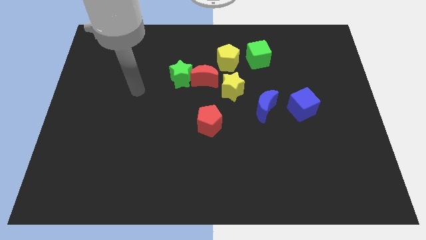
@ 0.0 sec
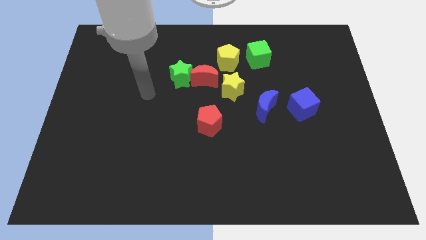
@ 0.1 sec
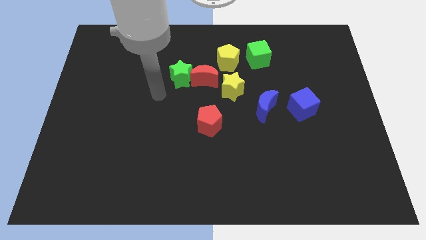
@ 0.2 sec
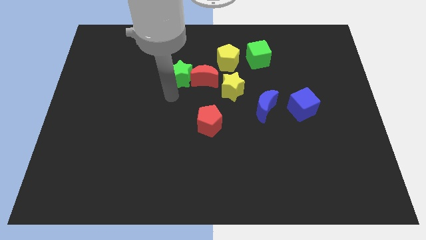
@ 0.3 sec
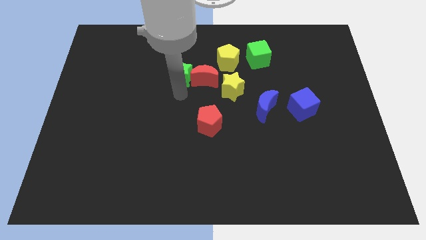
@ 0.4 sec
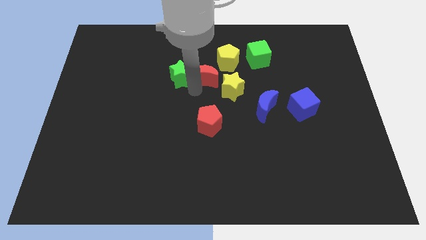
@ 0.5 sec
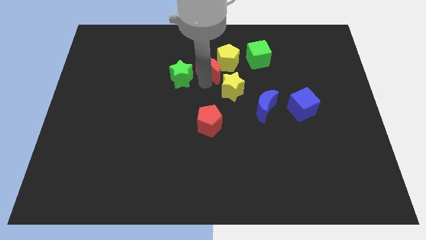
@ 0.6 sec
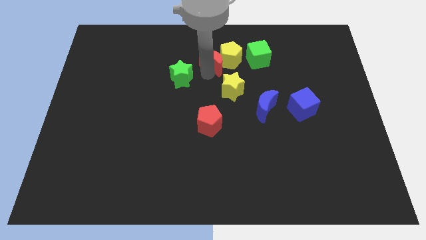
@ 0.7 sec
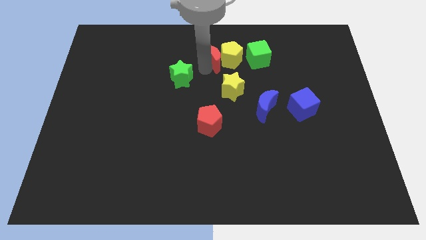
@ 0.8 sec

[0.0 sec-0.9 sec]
separate the green star from the red moon

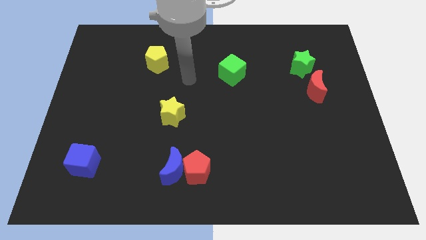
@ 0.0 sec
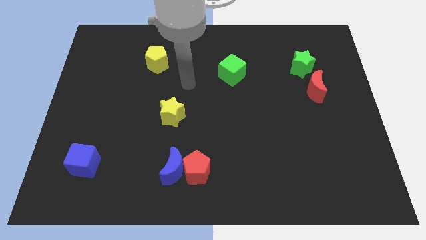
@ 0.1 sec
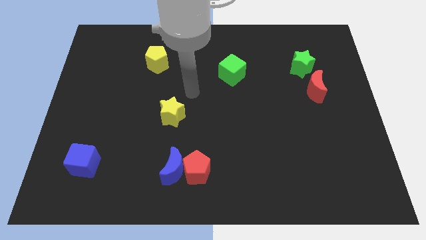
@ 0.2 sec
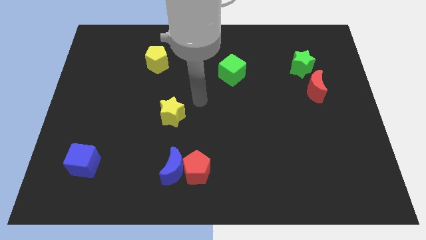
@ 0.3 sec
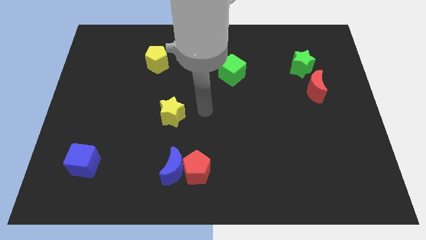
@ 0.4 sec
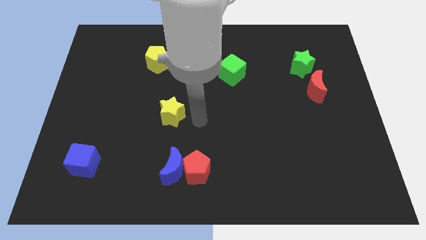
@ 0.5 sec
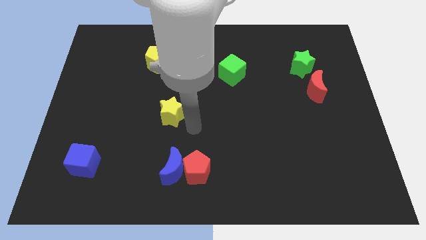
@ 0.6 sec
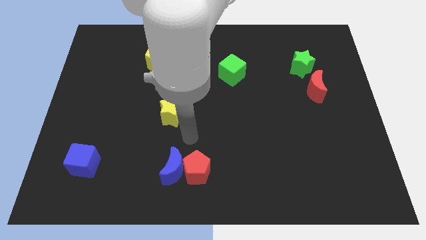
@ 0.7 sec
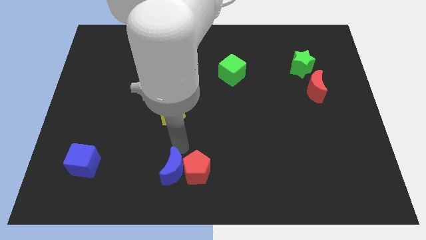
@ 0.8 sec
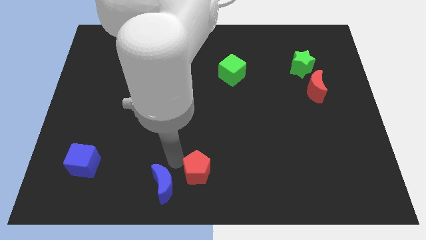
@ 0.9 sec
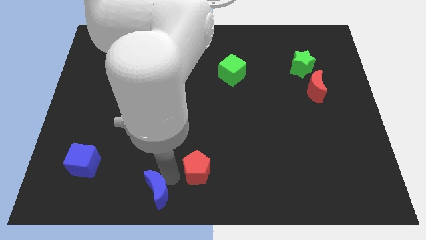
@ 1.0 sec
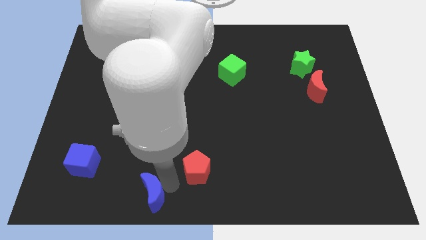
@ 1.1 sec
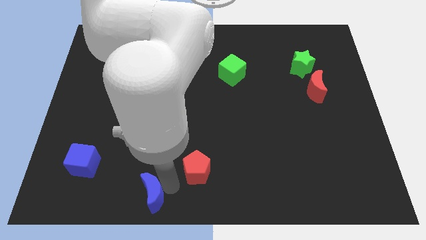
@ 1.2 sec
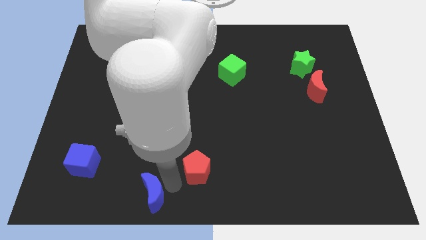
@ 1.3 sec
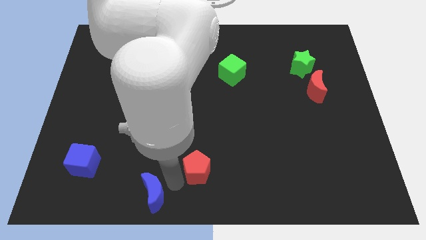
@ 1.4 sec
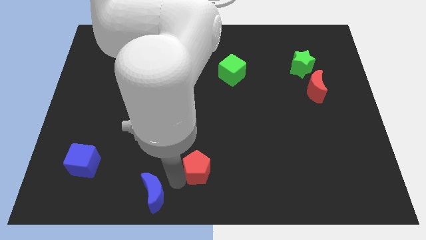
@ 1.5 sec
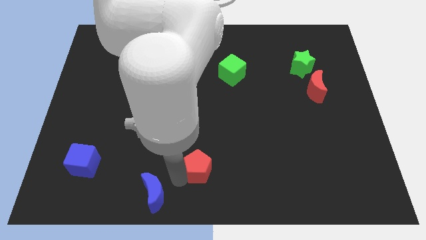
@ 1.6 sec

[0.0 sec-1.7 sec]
pull the red pentagon apart from the blue moon

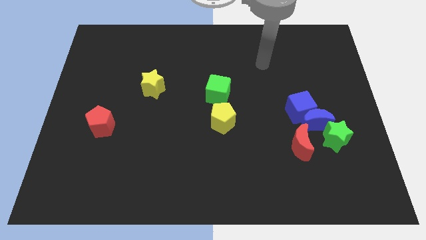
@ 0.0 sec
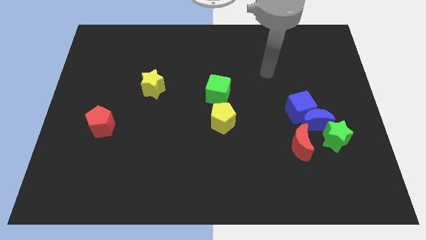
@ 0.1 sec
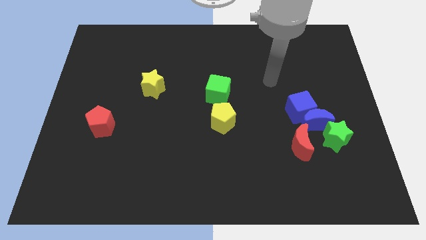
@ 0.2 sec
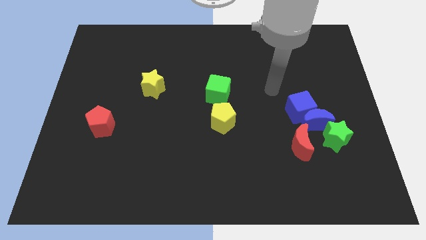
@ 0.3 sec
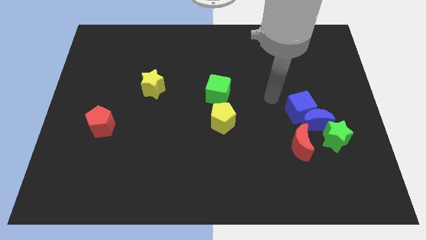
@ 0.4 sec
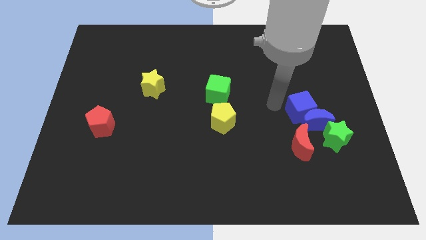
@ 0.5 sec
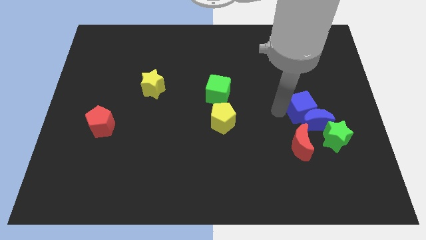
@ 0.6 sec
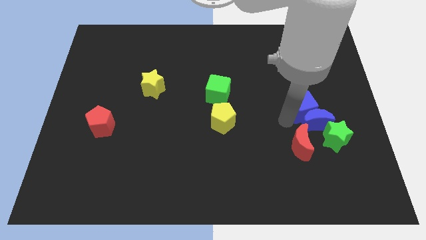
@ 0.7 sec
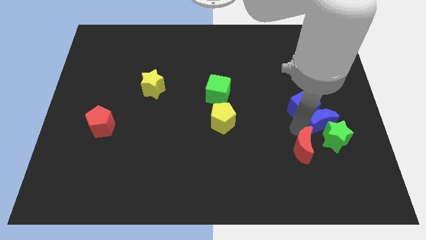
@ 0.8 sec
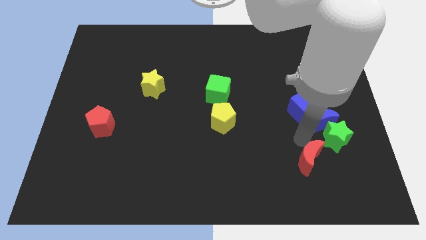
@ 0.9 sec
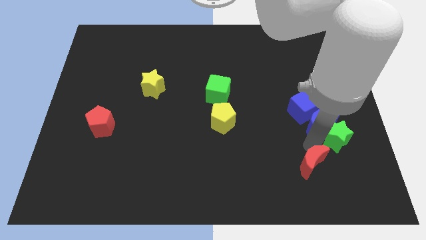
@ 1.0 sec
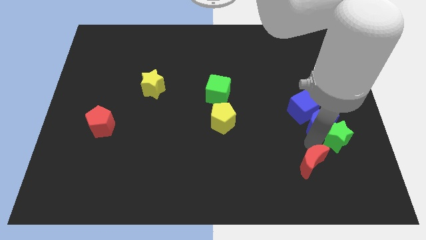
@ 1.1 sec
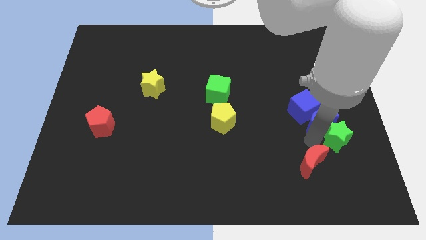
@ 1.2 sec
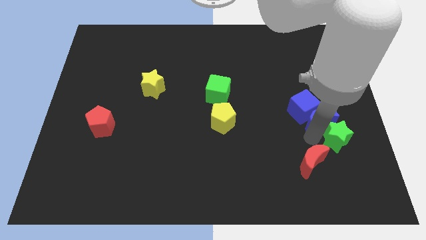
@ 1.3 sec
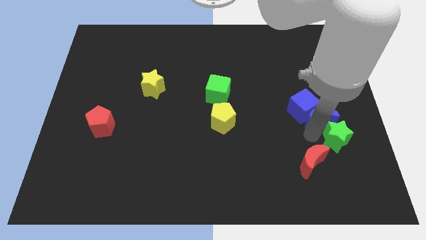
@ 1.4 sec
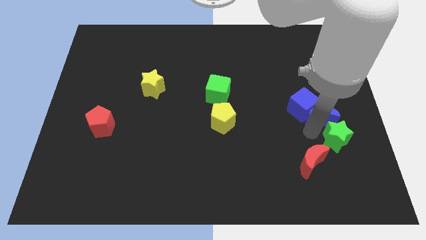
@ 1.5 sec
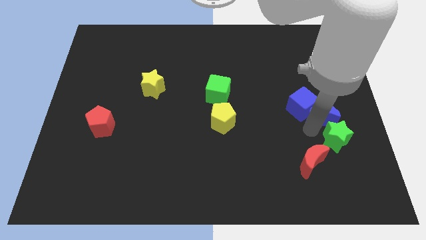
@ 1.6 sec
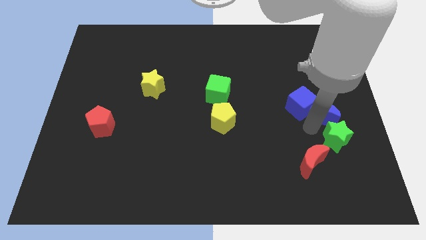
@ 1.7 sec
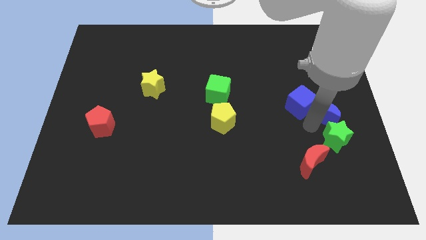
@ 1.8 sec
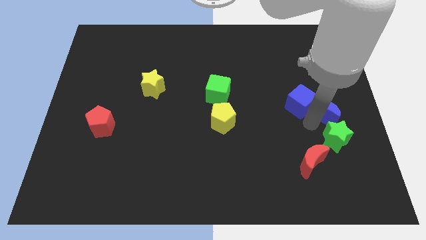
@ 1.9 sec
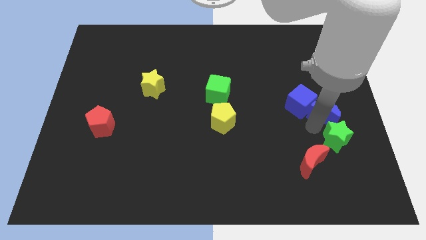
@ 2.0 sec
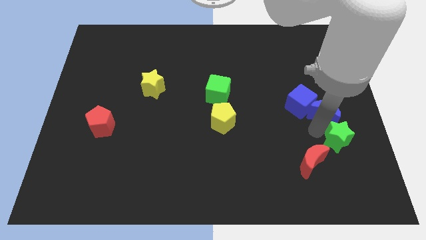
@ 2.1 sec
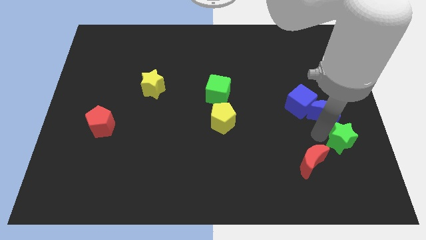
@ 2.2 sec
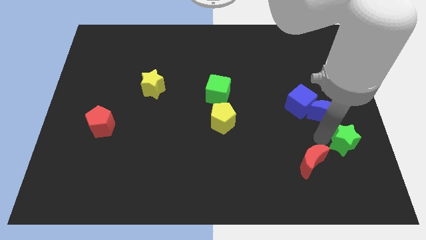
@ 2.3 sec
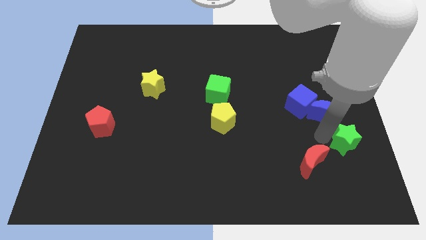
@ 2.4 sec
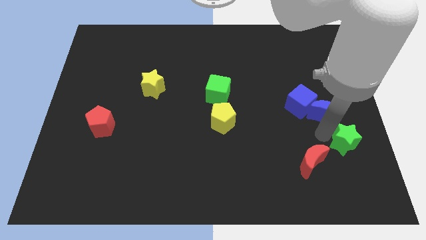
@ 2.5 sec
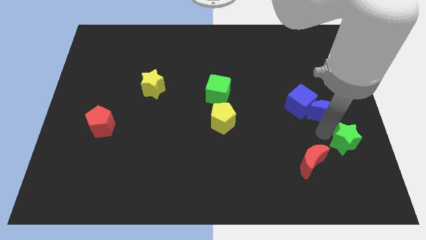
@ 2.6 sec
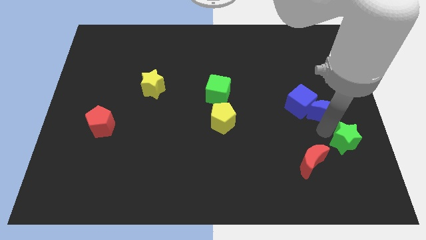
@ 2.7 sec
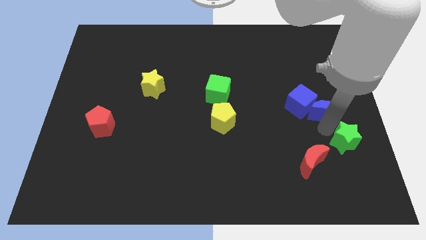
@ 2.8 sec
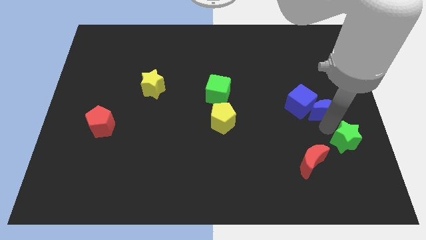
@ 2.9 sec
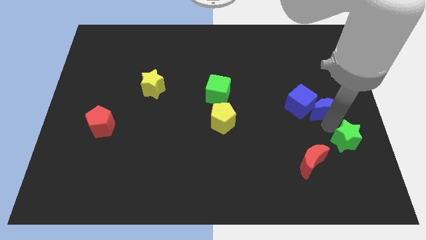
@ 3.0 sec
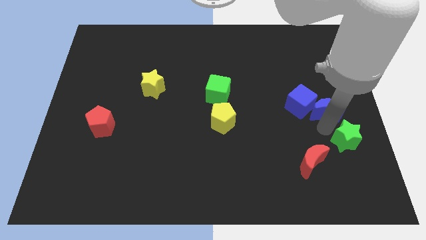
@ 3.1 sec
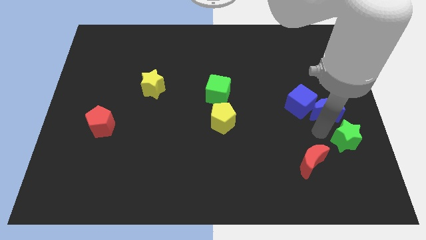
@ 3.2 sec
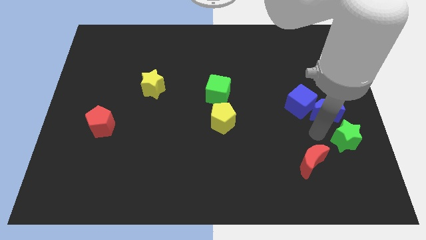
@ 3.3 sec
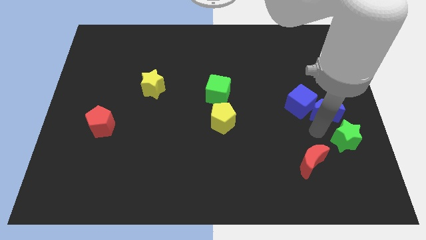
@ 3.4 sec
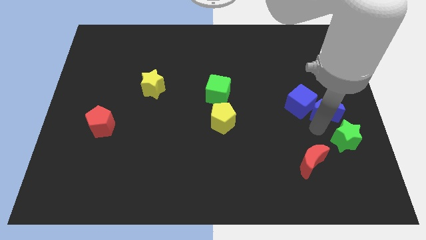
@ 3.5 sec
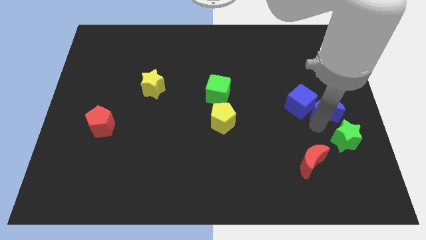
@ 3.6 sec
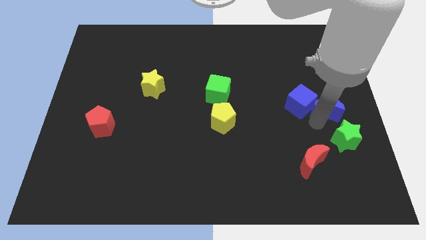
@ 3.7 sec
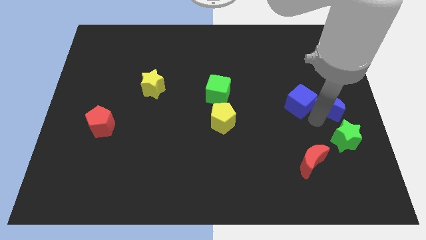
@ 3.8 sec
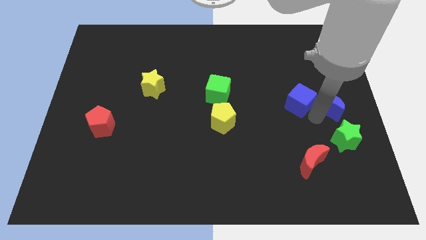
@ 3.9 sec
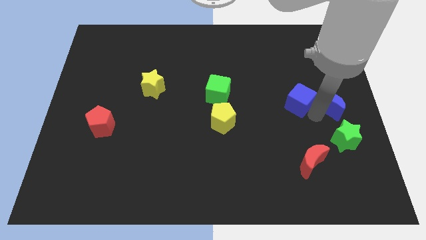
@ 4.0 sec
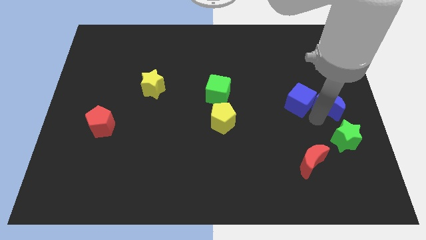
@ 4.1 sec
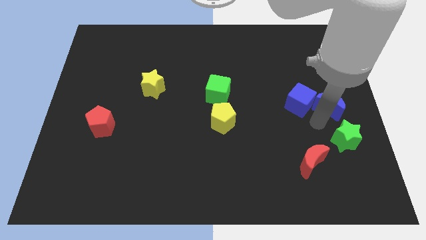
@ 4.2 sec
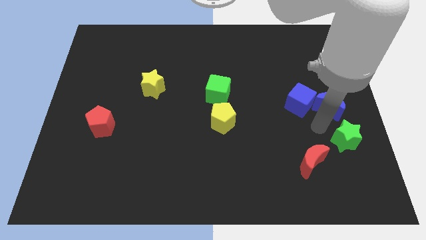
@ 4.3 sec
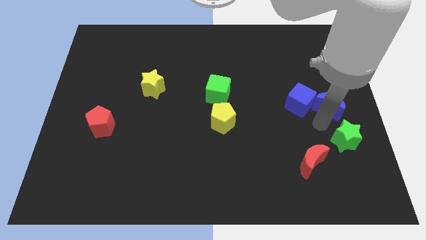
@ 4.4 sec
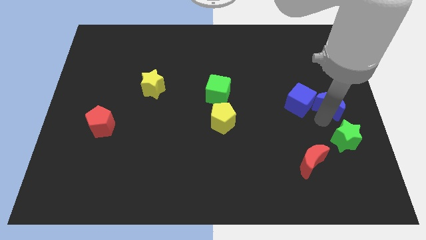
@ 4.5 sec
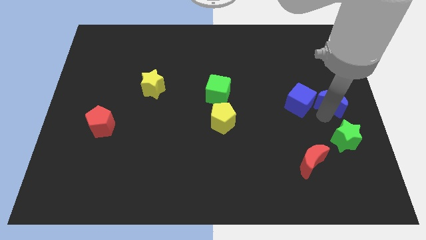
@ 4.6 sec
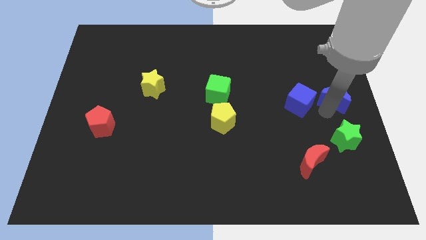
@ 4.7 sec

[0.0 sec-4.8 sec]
pull the blue moon apart from the blue cube, green star, and red moon

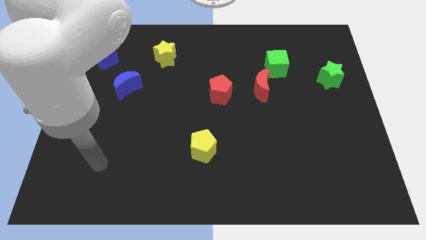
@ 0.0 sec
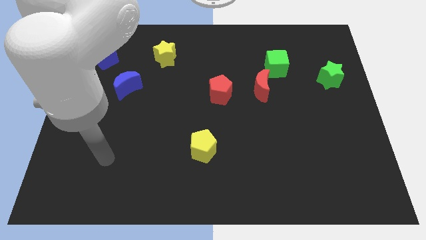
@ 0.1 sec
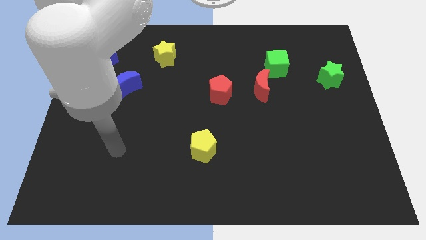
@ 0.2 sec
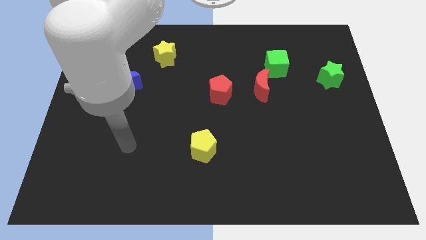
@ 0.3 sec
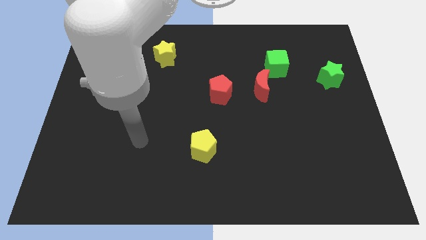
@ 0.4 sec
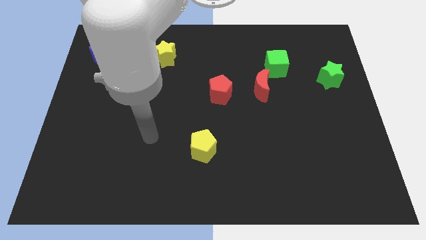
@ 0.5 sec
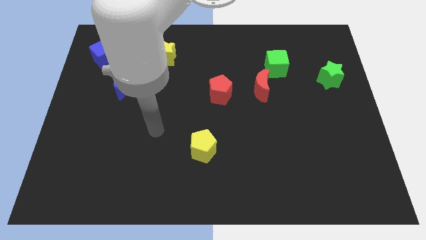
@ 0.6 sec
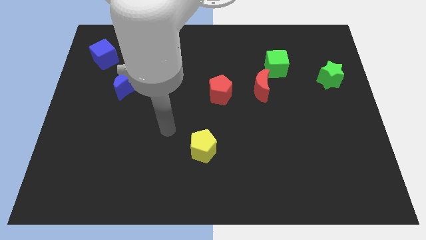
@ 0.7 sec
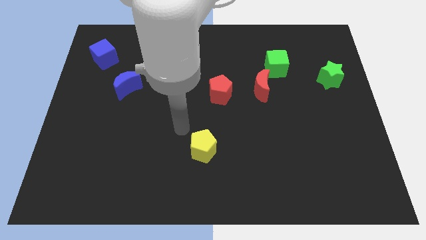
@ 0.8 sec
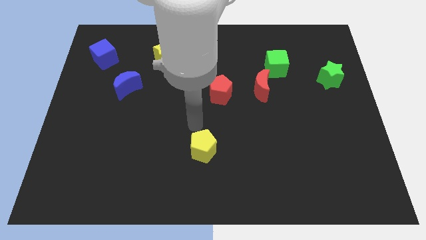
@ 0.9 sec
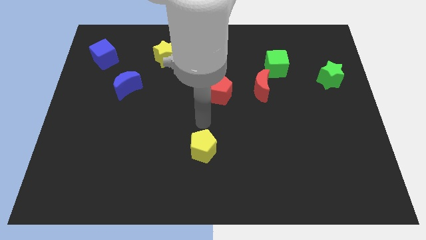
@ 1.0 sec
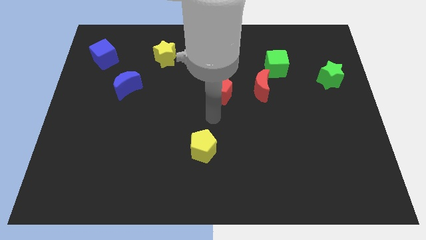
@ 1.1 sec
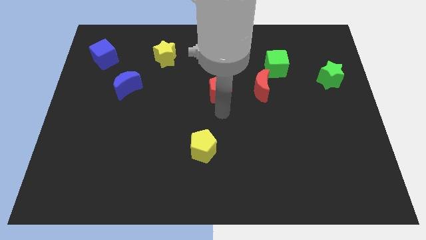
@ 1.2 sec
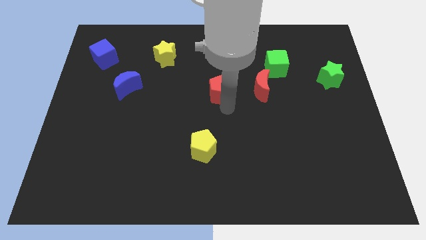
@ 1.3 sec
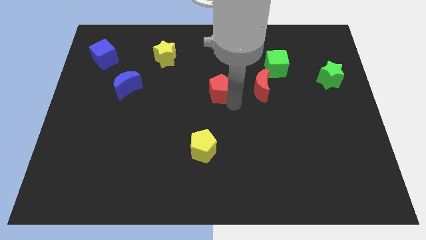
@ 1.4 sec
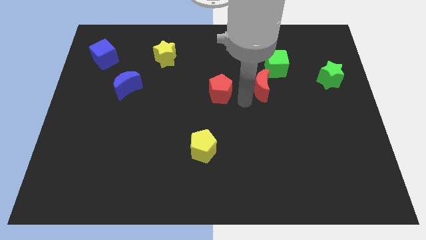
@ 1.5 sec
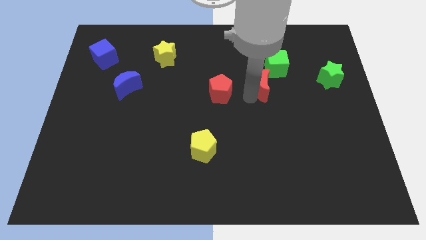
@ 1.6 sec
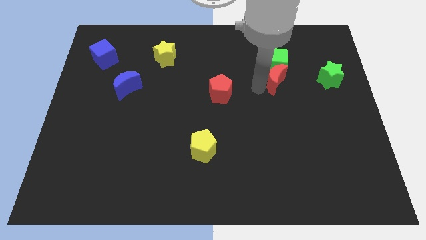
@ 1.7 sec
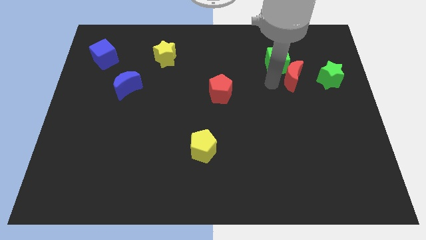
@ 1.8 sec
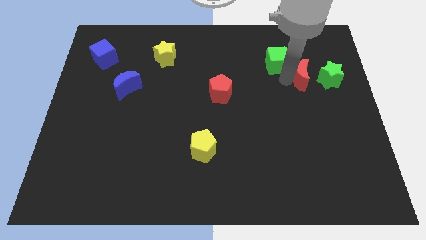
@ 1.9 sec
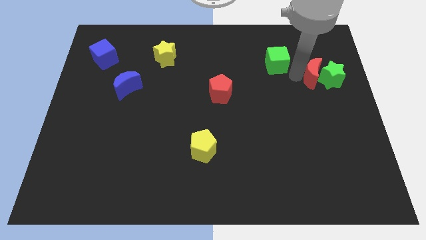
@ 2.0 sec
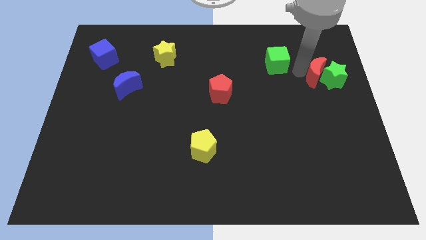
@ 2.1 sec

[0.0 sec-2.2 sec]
separate the green cube from the red moon
